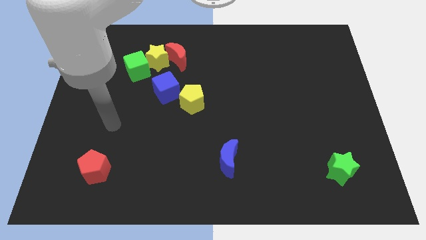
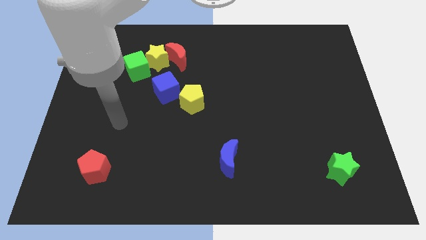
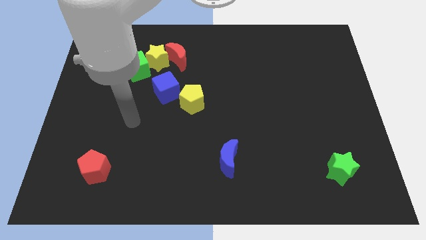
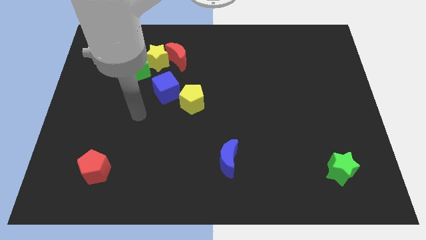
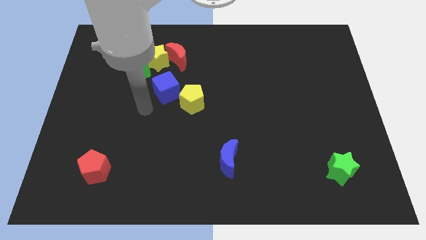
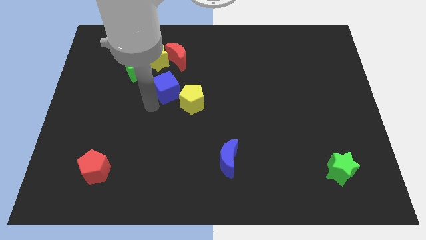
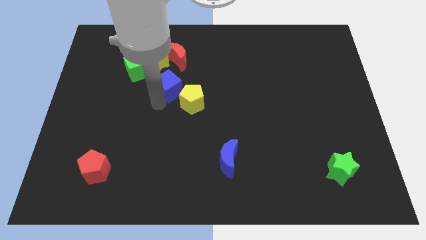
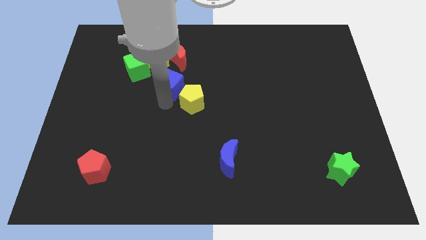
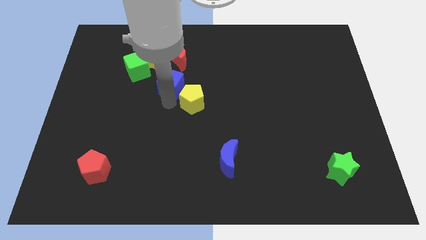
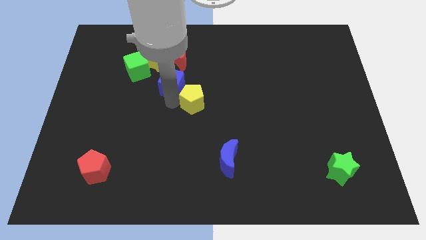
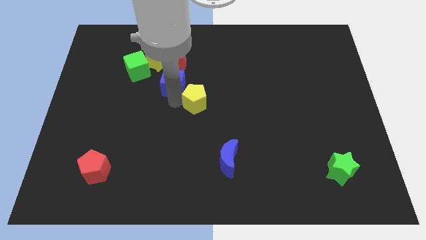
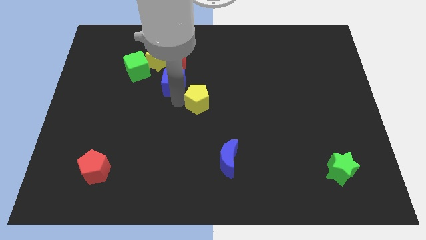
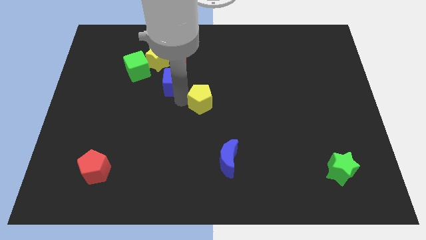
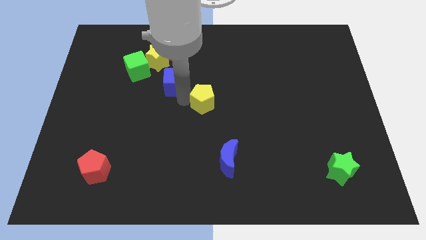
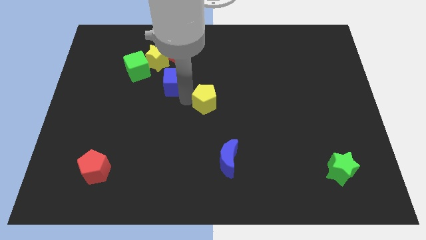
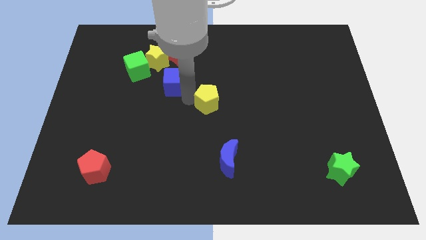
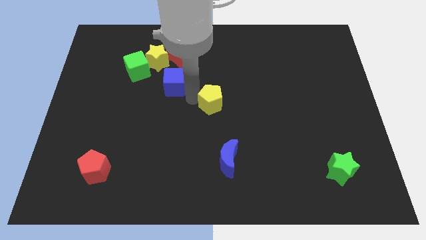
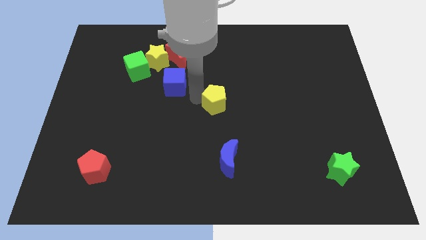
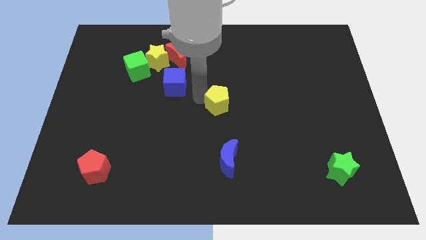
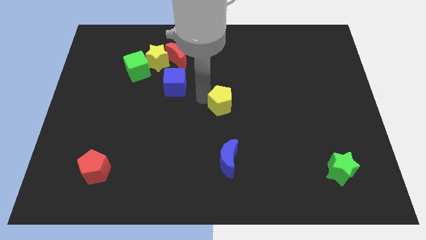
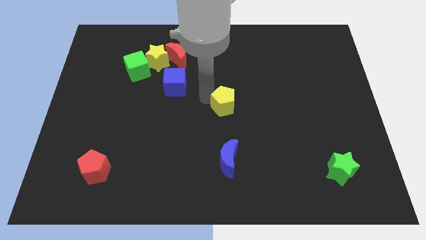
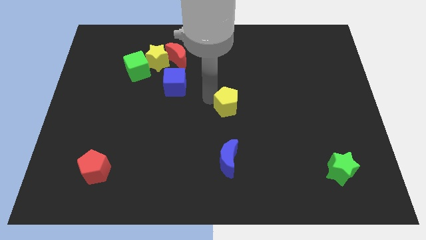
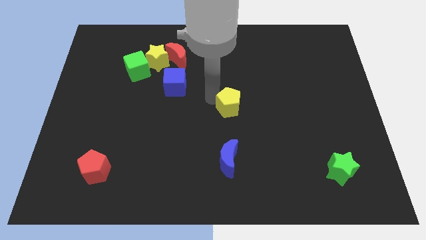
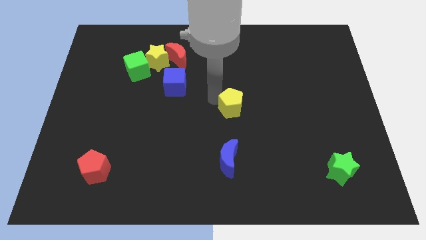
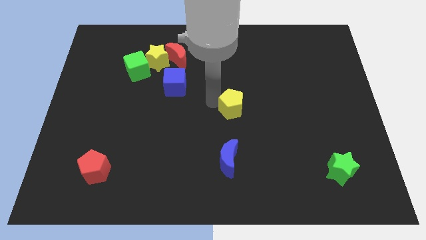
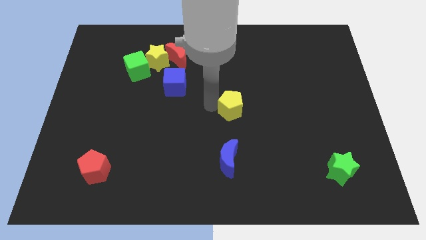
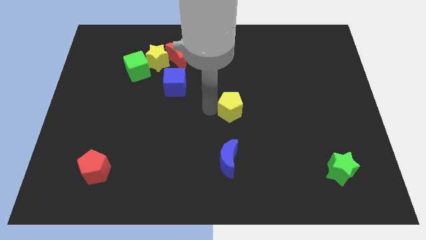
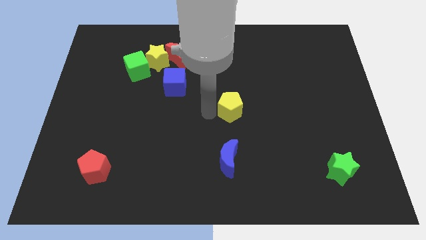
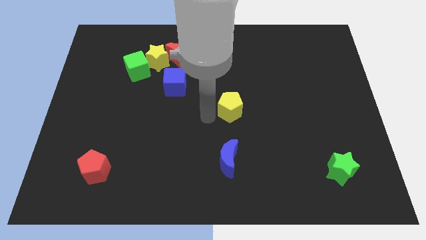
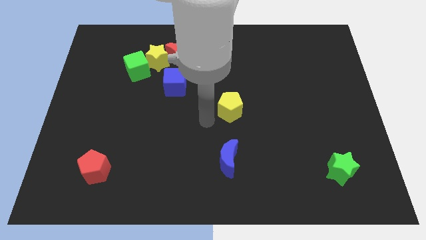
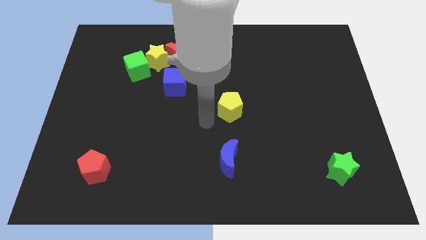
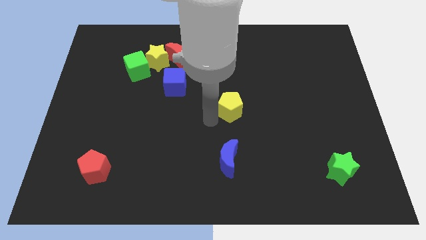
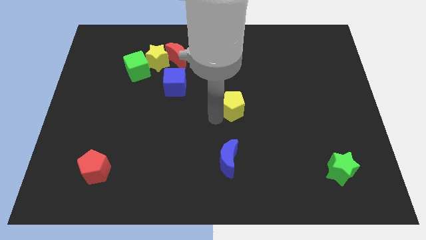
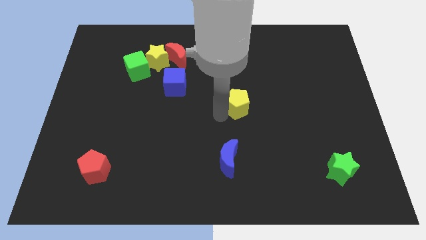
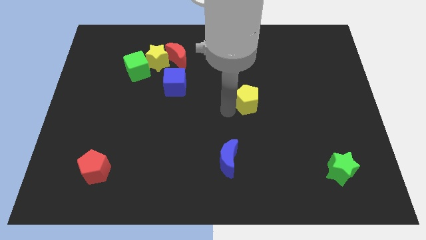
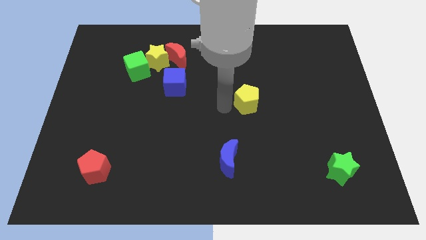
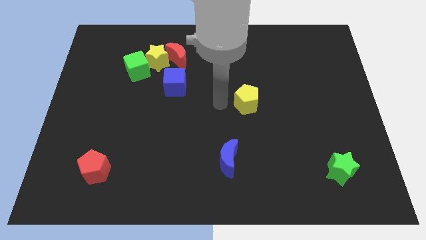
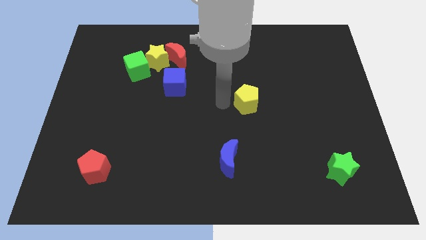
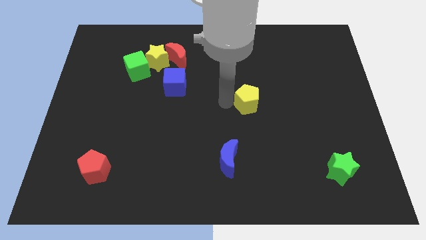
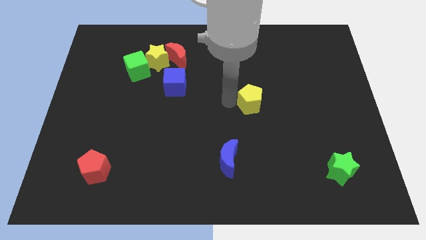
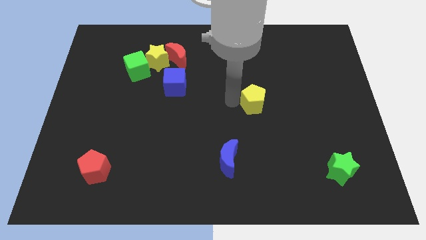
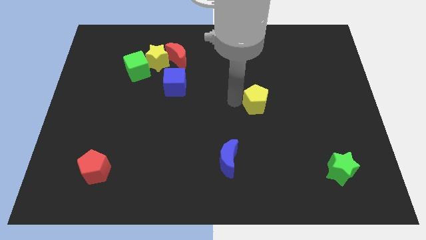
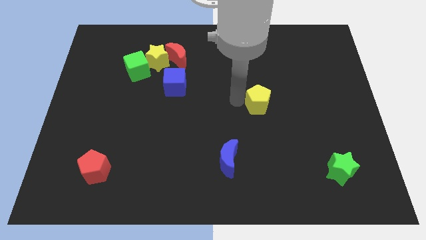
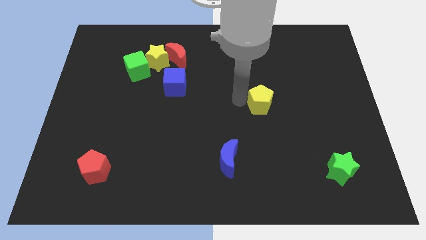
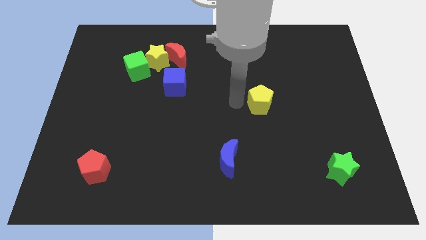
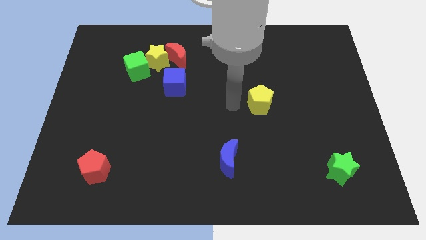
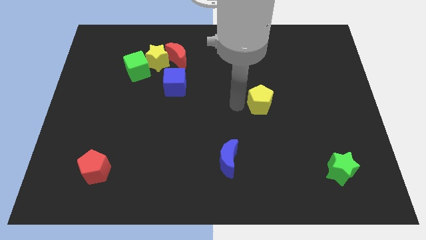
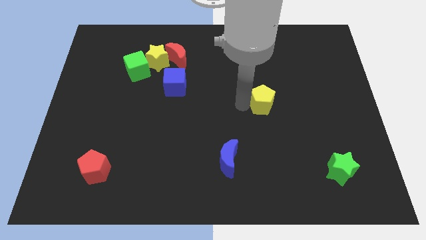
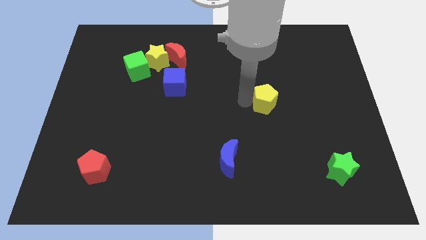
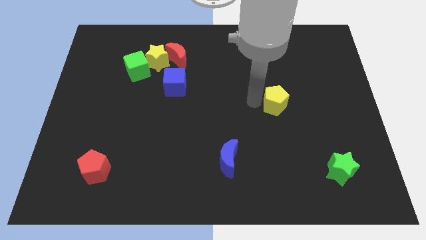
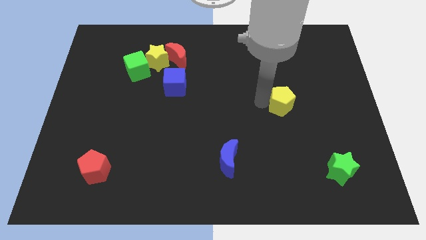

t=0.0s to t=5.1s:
push the yellow pentagon right

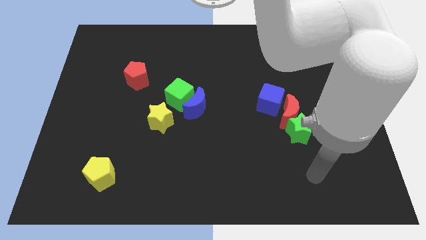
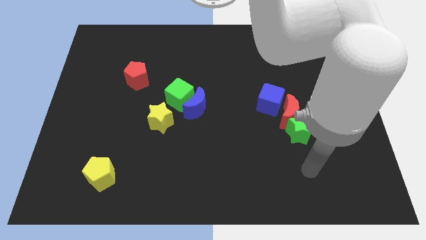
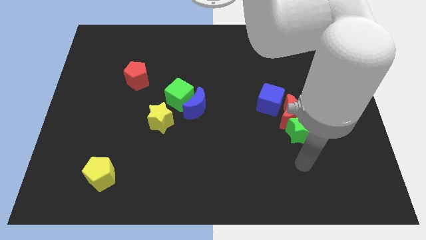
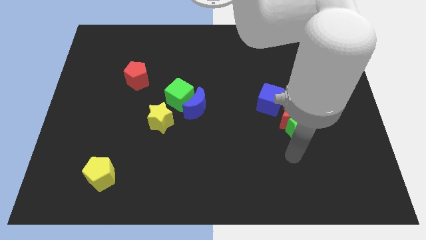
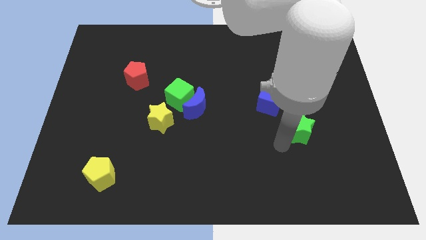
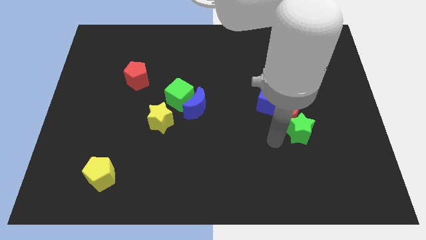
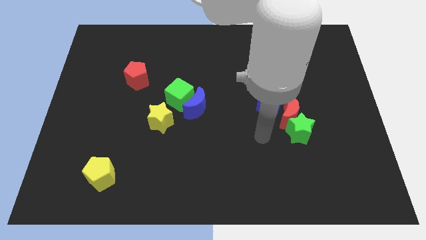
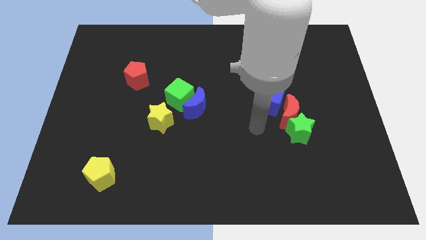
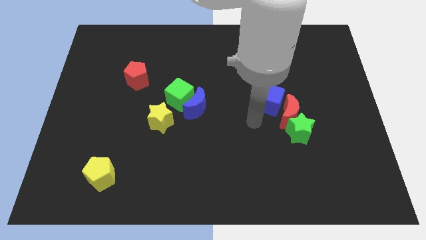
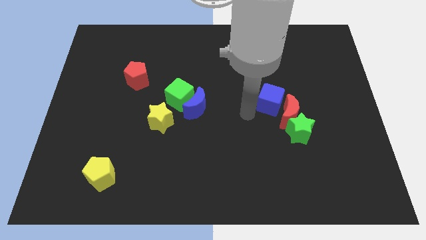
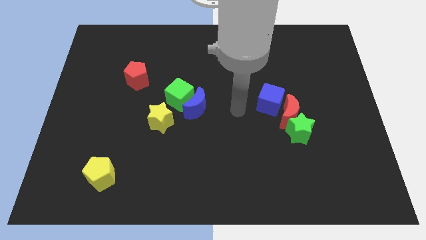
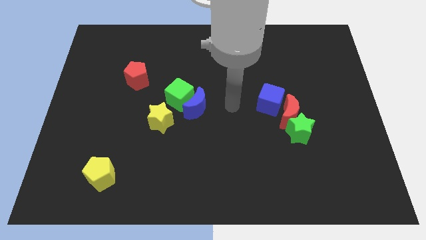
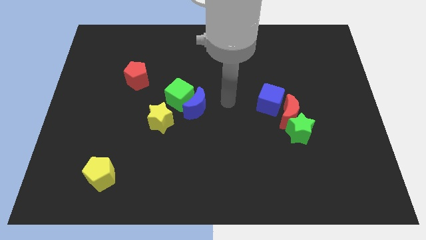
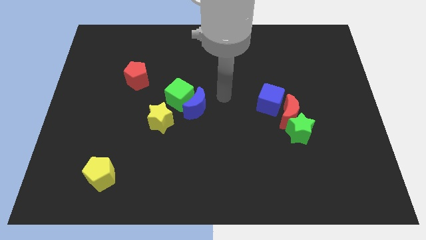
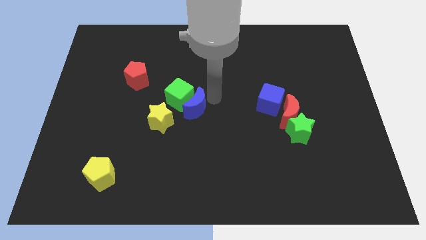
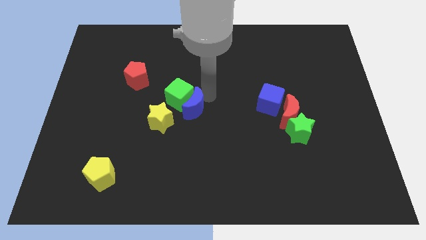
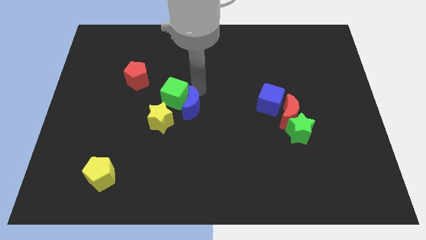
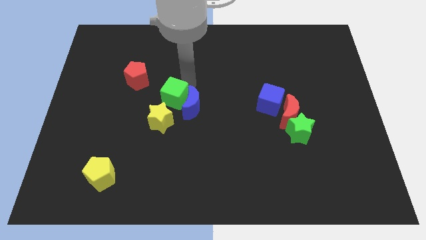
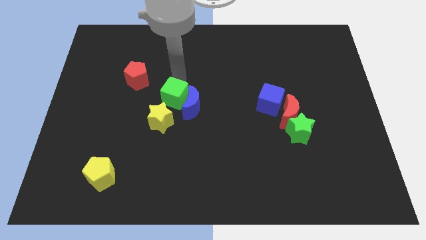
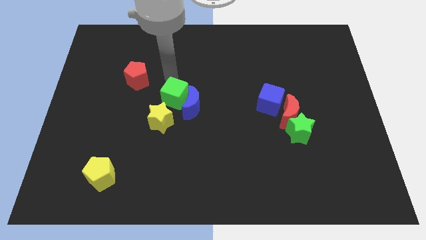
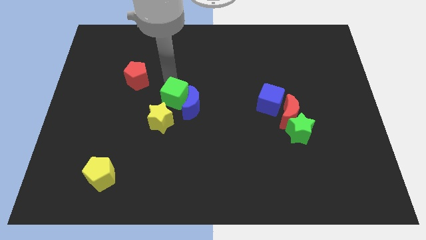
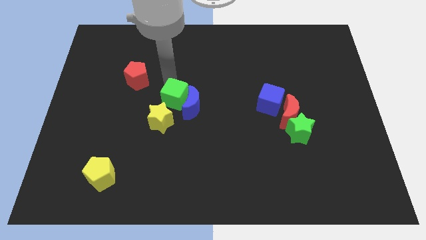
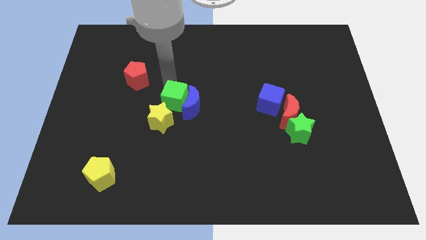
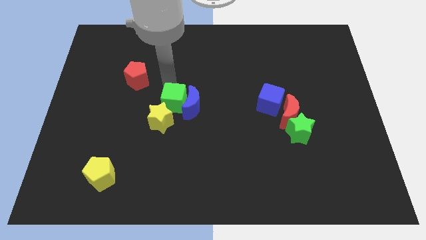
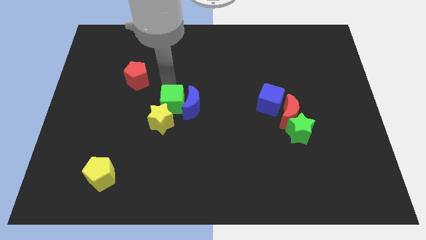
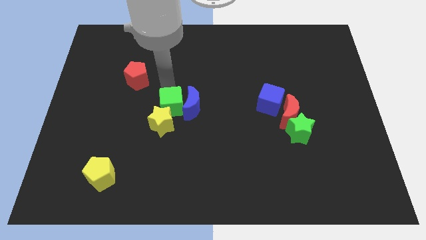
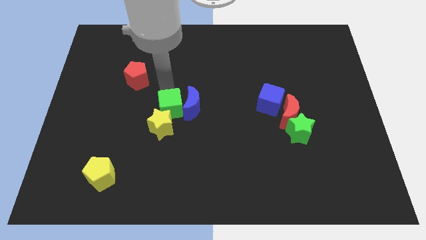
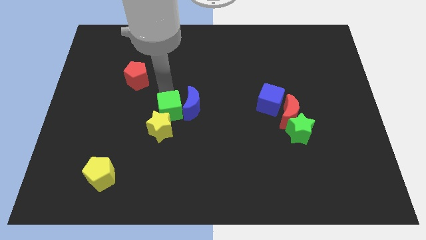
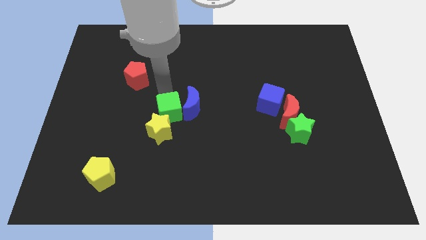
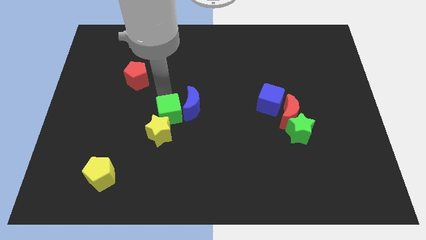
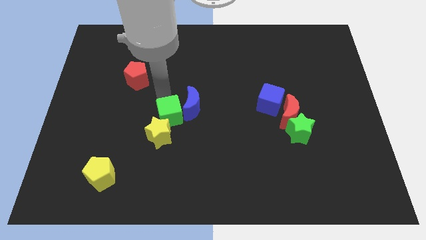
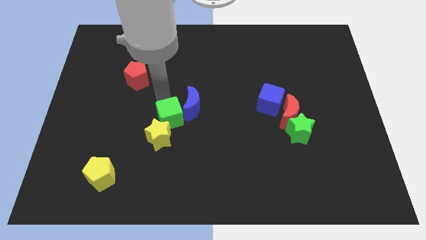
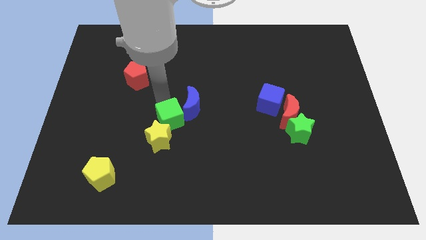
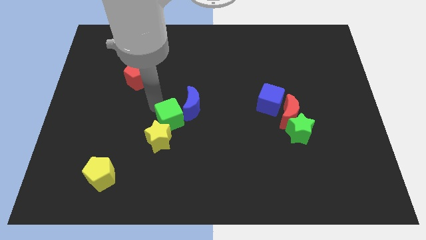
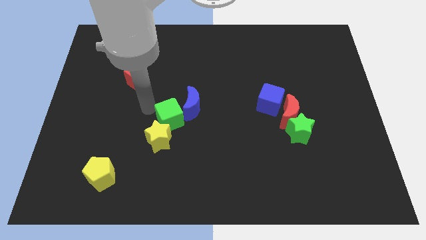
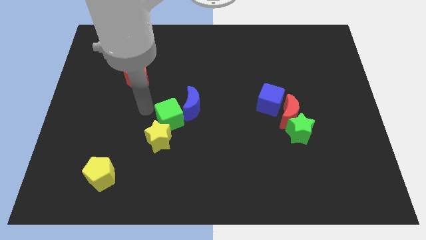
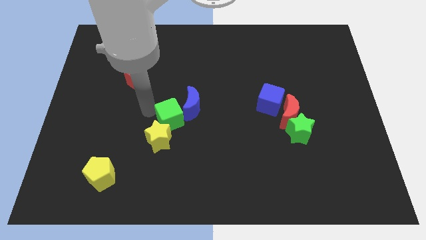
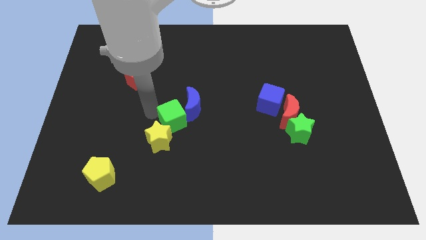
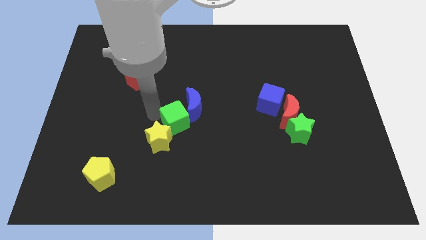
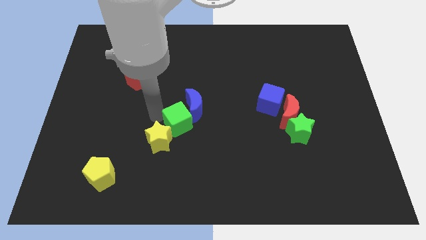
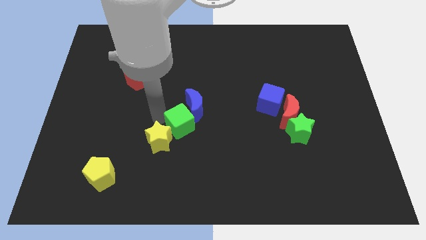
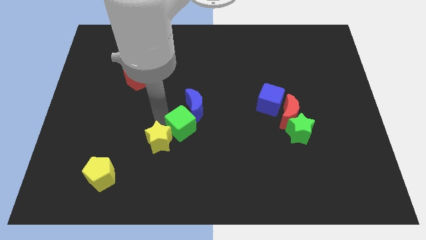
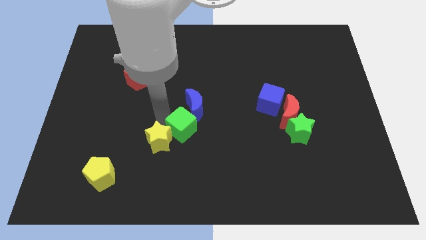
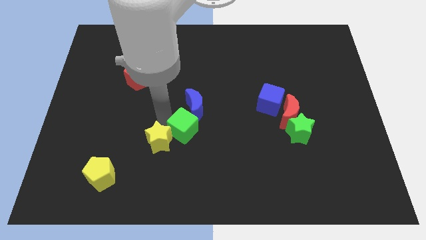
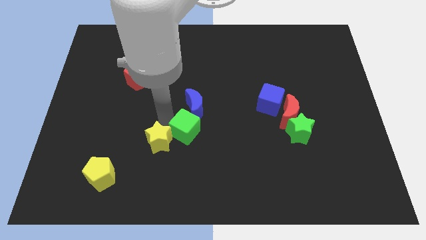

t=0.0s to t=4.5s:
slide the green cube diagonally down and to the right a little
